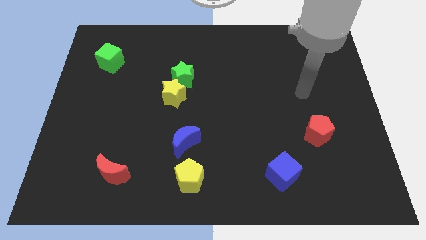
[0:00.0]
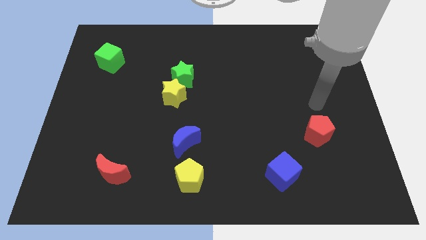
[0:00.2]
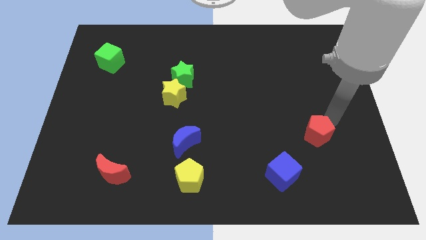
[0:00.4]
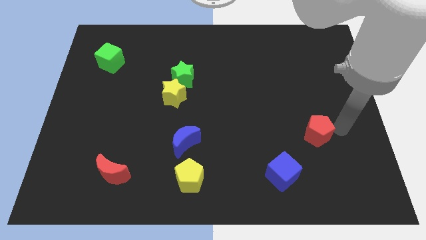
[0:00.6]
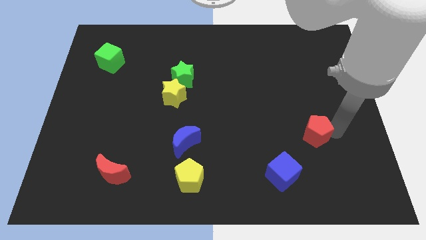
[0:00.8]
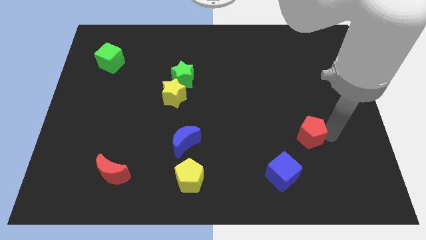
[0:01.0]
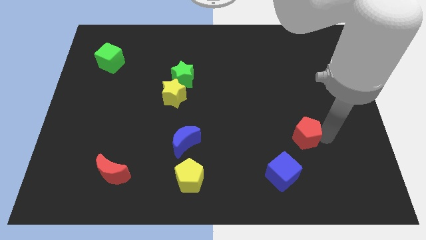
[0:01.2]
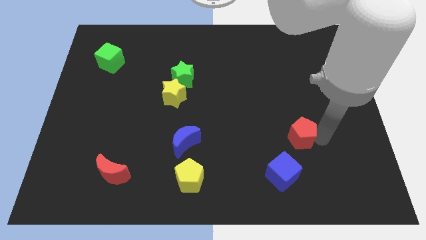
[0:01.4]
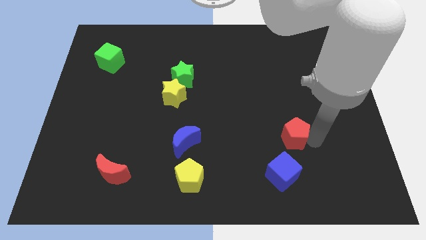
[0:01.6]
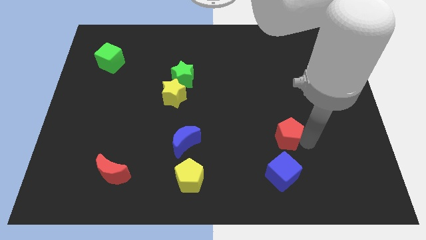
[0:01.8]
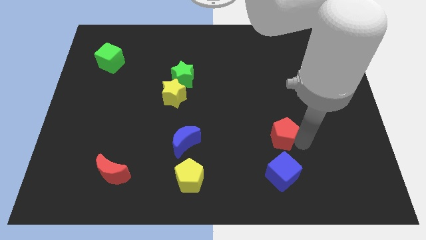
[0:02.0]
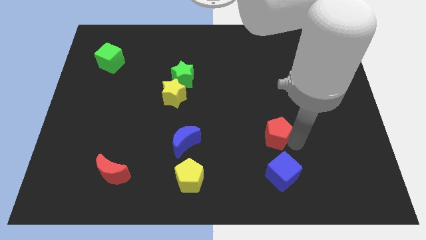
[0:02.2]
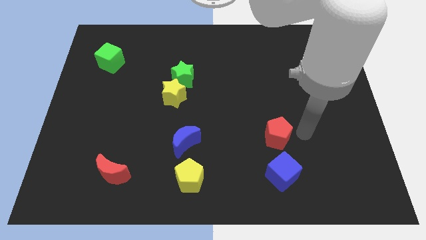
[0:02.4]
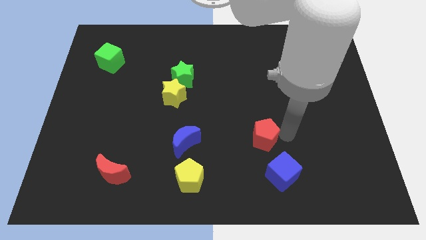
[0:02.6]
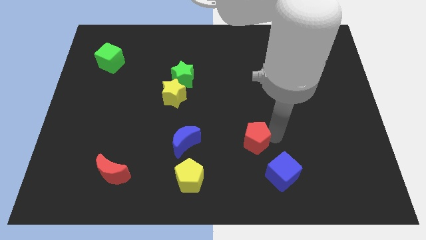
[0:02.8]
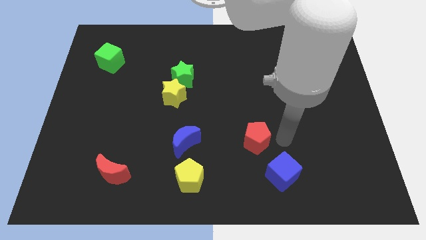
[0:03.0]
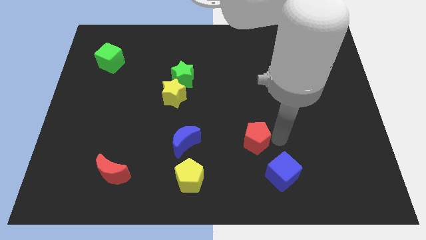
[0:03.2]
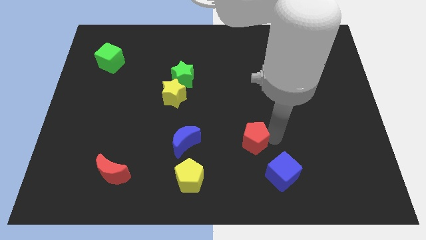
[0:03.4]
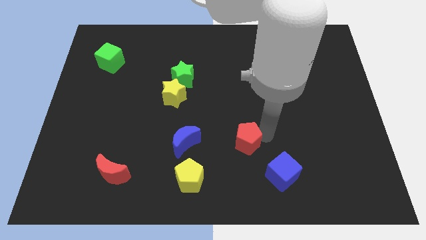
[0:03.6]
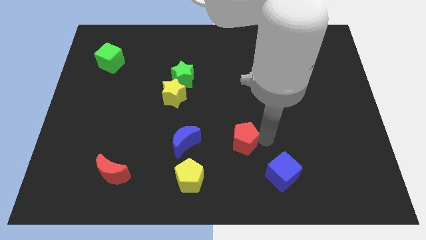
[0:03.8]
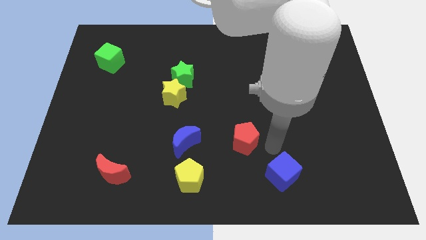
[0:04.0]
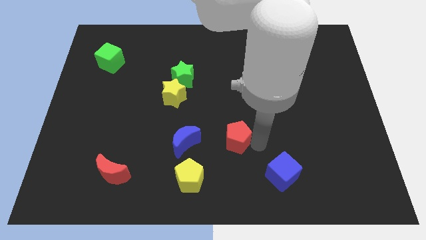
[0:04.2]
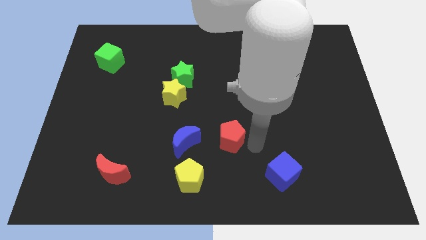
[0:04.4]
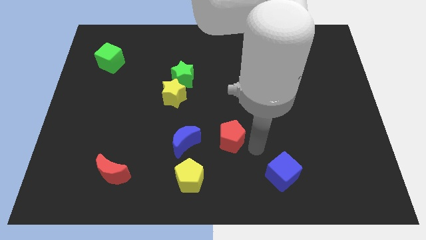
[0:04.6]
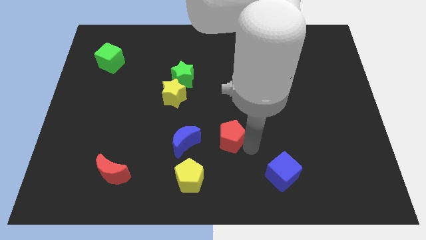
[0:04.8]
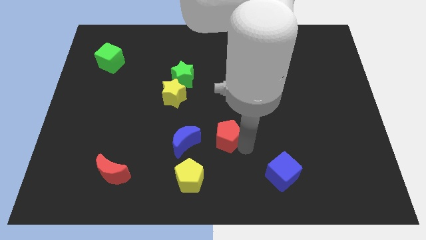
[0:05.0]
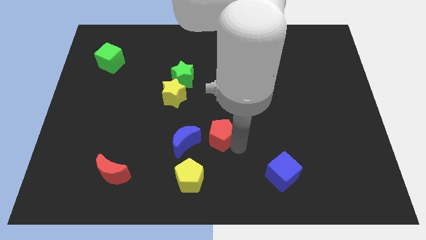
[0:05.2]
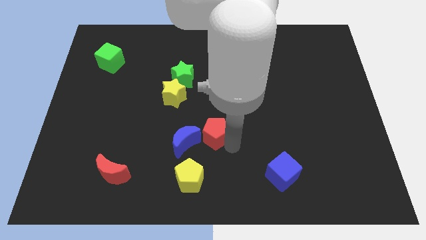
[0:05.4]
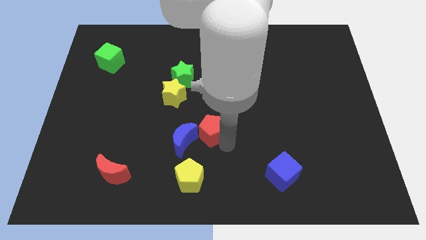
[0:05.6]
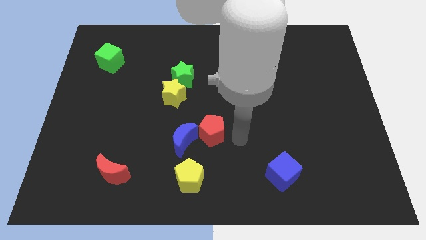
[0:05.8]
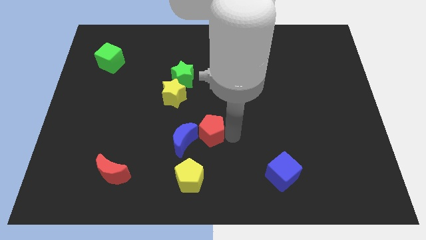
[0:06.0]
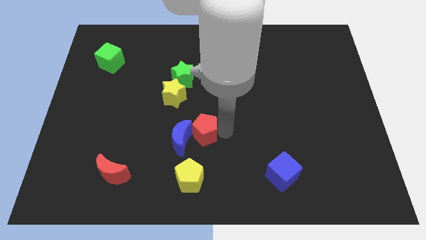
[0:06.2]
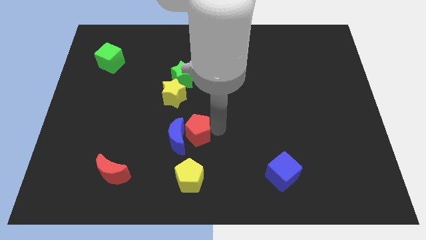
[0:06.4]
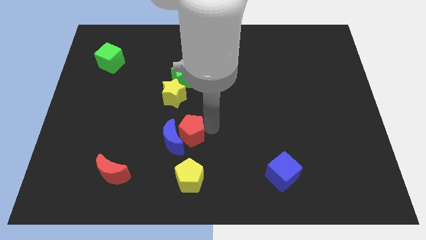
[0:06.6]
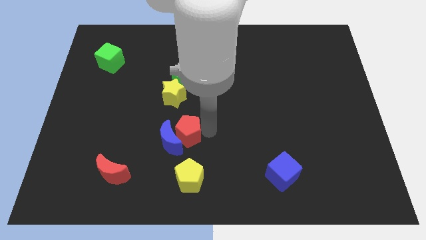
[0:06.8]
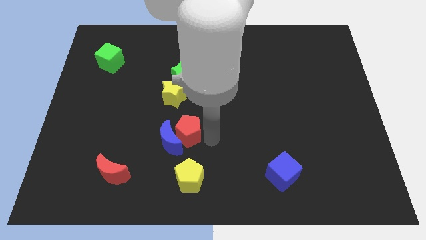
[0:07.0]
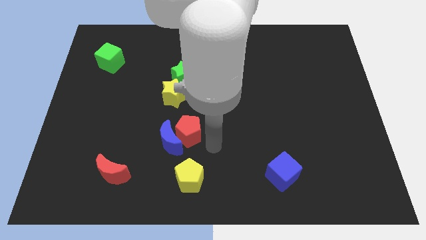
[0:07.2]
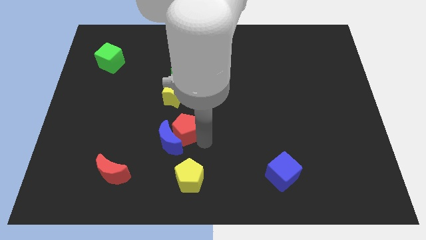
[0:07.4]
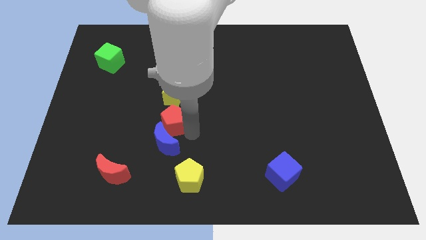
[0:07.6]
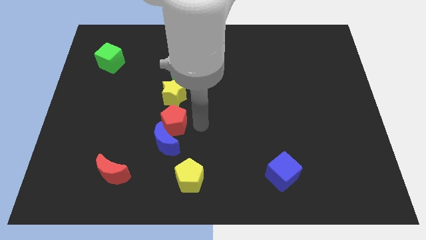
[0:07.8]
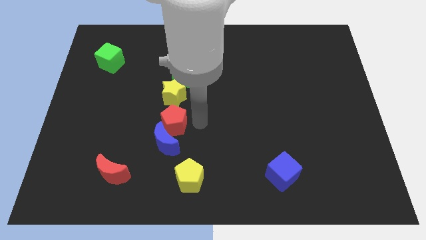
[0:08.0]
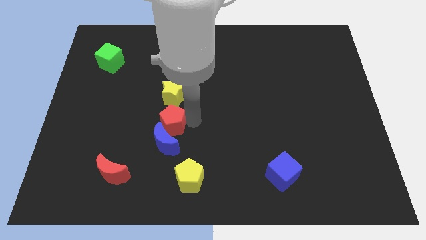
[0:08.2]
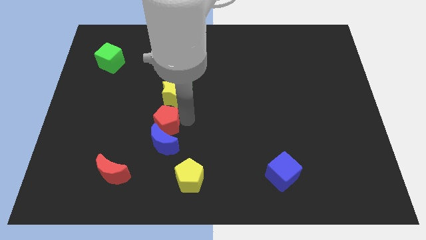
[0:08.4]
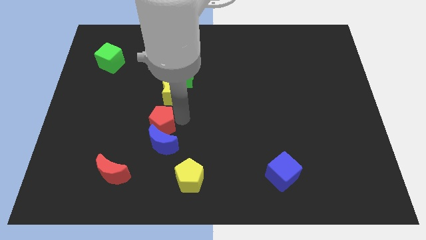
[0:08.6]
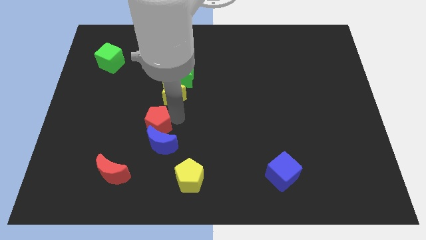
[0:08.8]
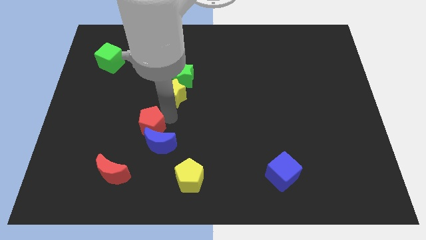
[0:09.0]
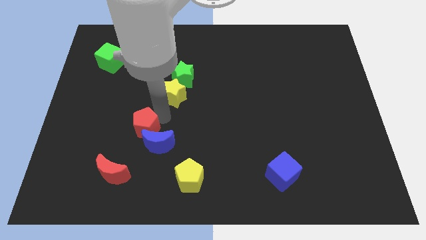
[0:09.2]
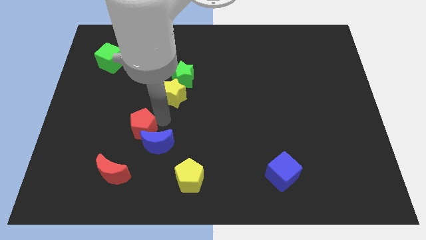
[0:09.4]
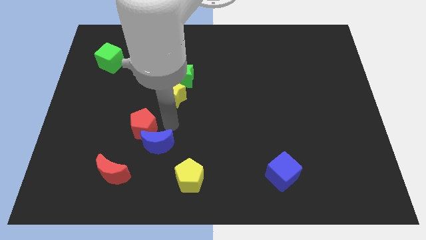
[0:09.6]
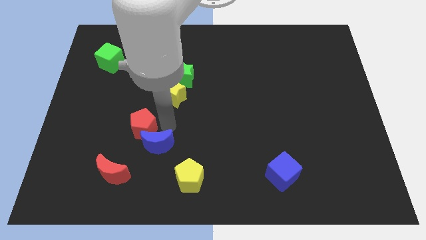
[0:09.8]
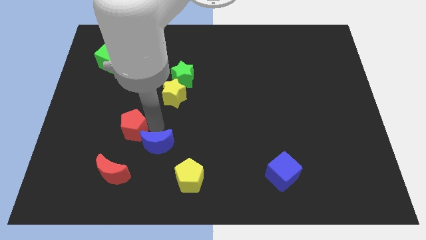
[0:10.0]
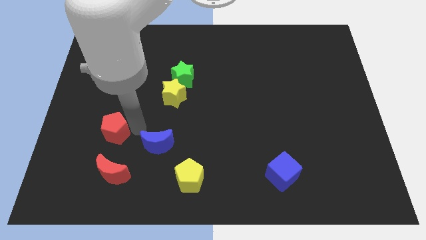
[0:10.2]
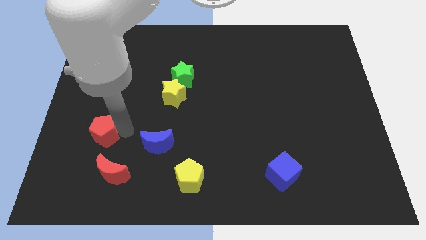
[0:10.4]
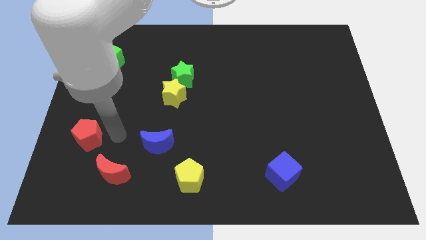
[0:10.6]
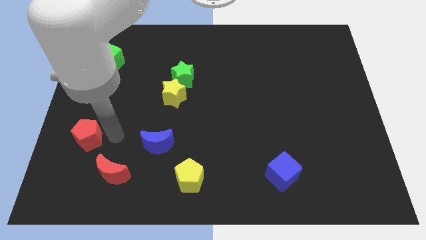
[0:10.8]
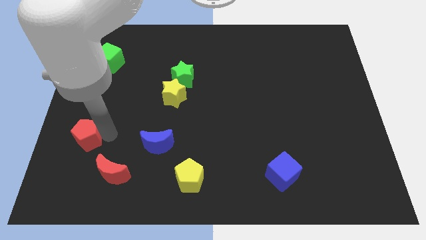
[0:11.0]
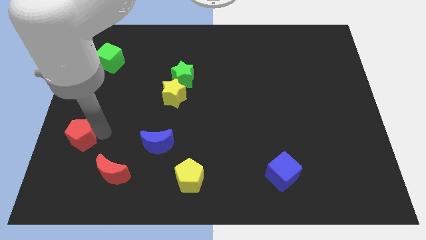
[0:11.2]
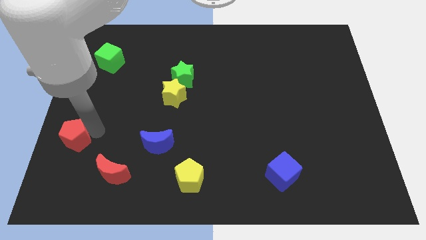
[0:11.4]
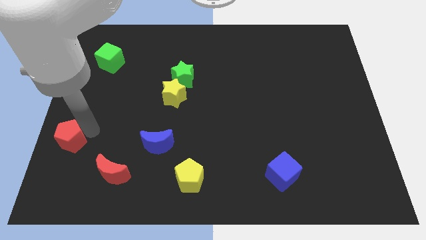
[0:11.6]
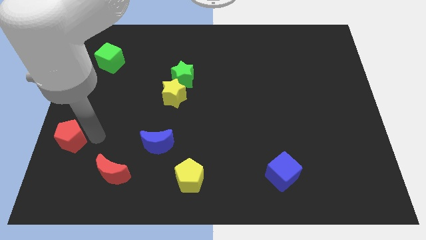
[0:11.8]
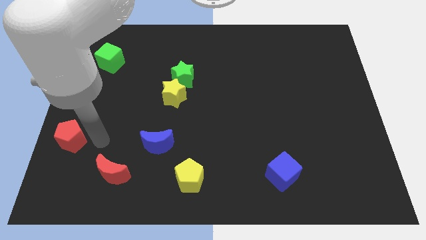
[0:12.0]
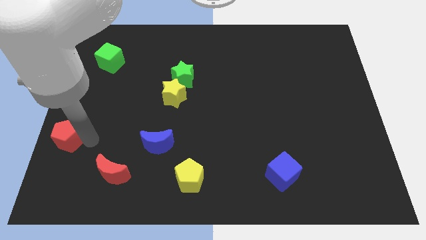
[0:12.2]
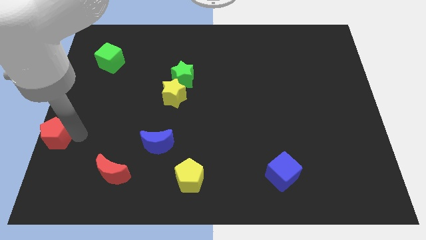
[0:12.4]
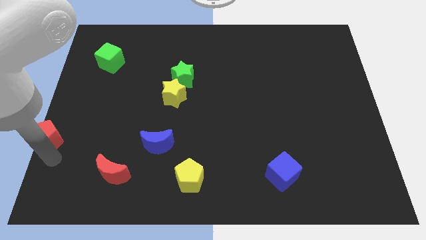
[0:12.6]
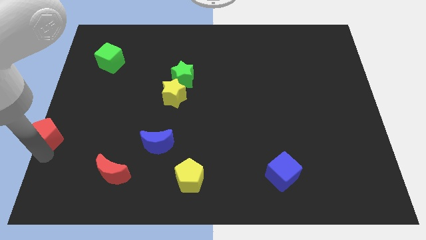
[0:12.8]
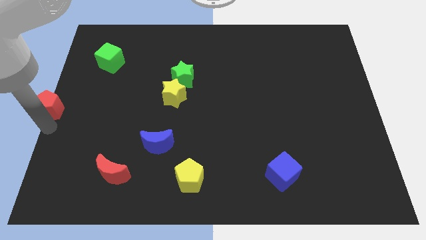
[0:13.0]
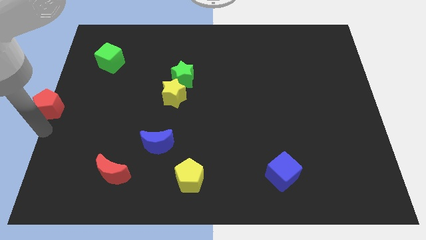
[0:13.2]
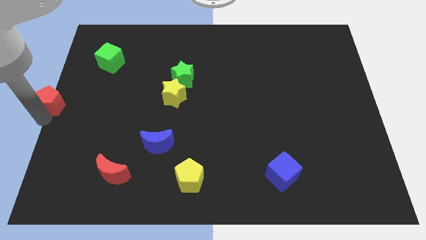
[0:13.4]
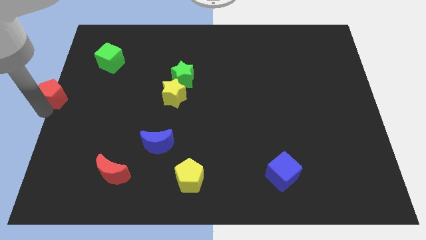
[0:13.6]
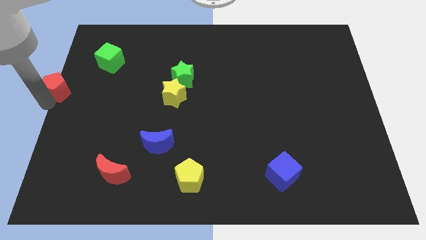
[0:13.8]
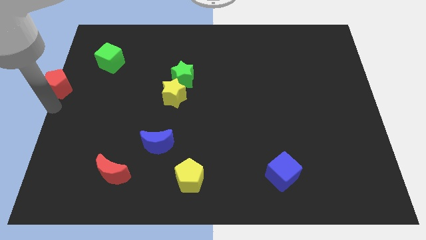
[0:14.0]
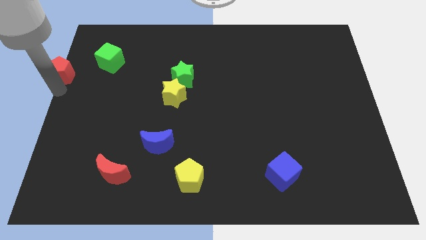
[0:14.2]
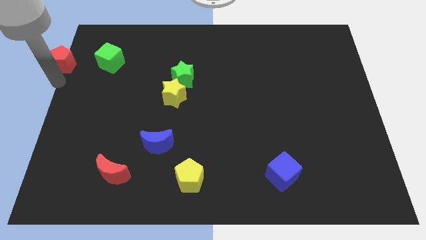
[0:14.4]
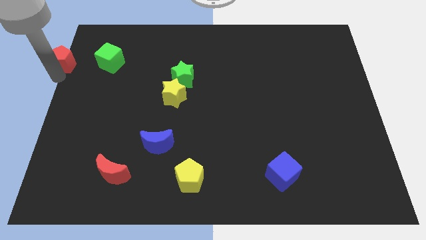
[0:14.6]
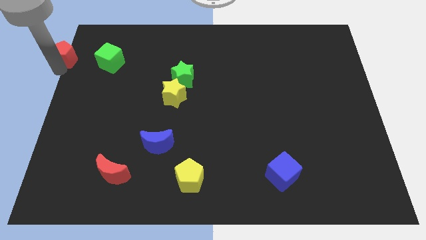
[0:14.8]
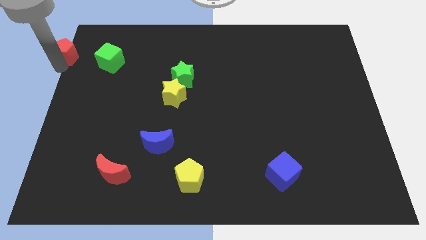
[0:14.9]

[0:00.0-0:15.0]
slide the red pentagon to the top left
